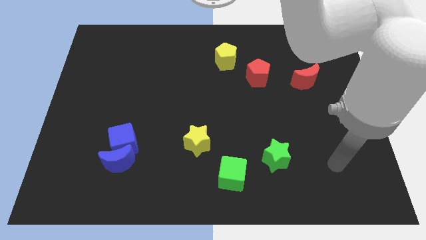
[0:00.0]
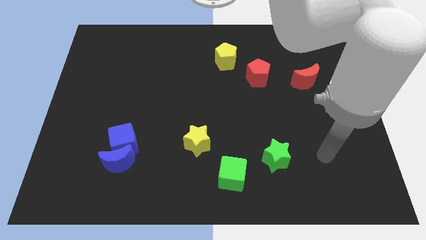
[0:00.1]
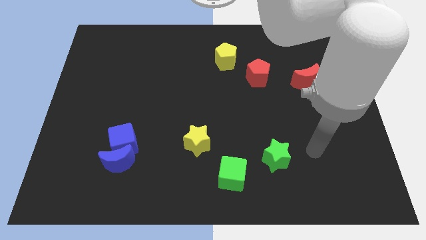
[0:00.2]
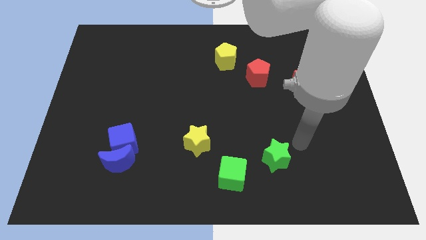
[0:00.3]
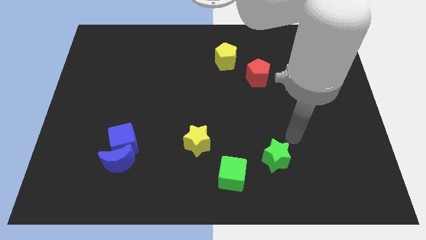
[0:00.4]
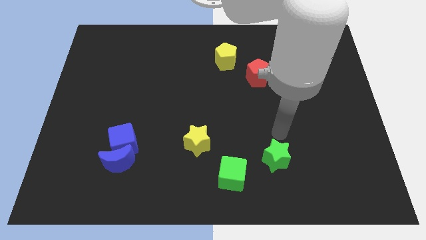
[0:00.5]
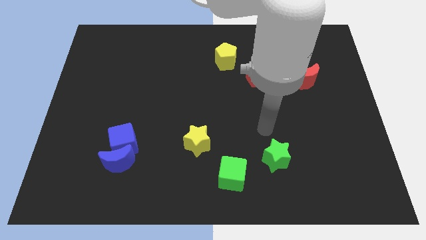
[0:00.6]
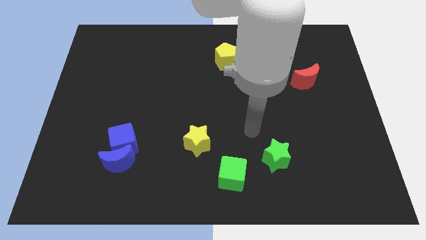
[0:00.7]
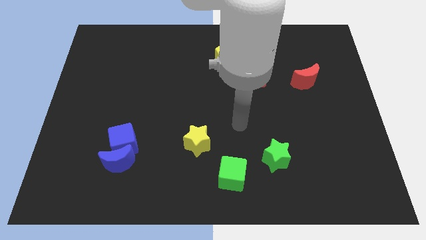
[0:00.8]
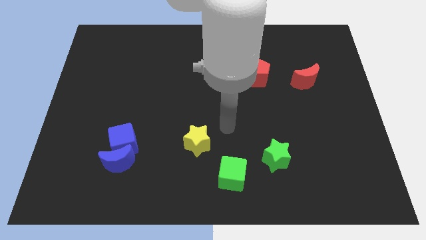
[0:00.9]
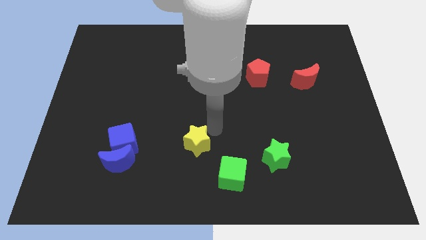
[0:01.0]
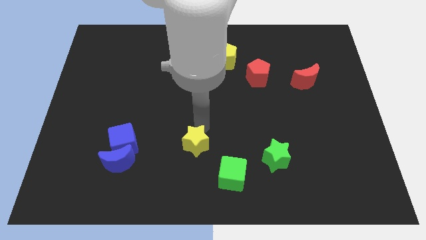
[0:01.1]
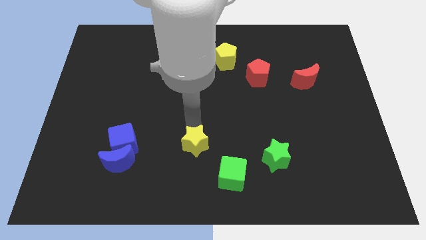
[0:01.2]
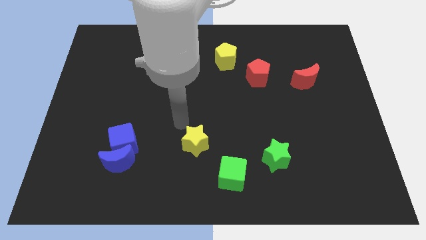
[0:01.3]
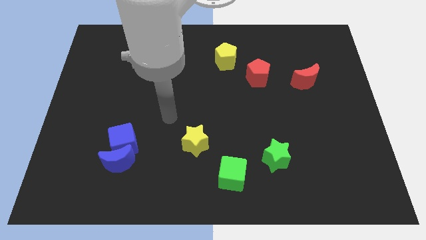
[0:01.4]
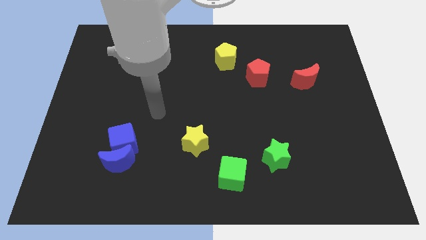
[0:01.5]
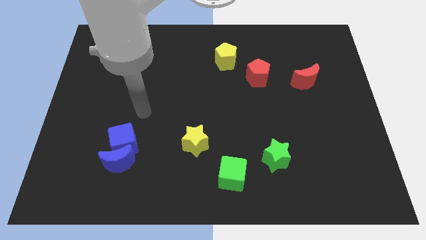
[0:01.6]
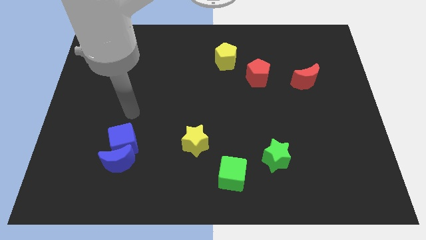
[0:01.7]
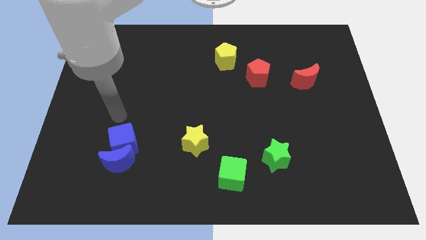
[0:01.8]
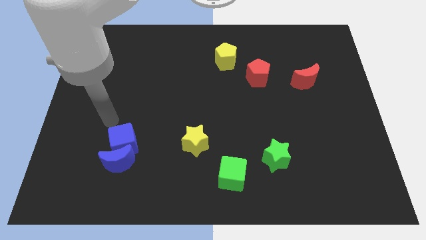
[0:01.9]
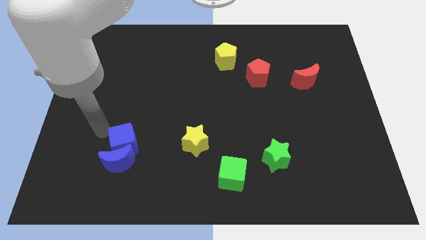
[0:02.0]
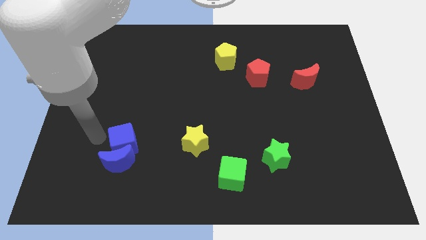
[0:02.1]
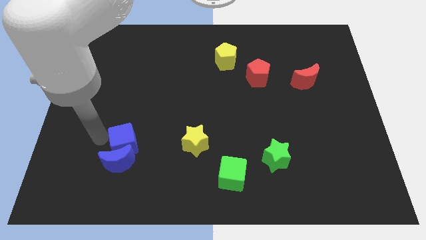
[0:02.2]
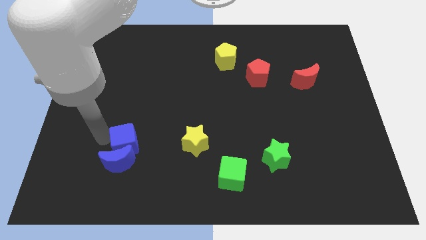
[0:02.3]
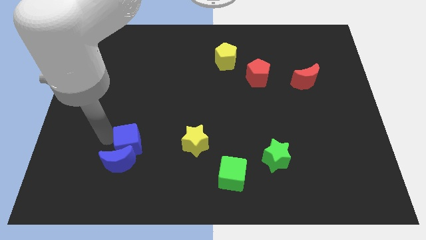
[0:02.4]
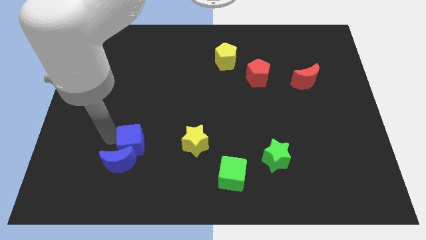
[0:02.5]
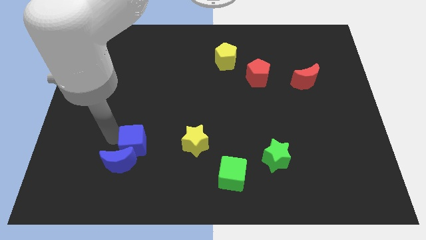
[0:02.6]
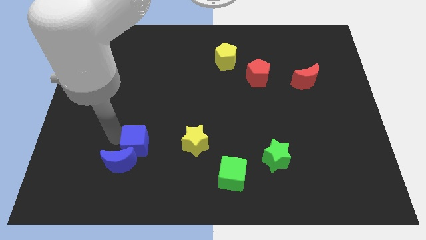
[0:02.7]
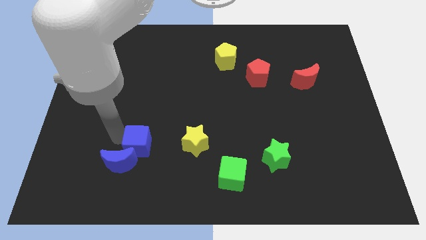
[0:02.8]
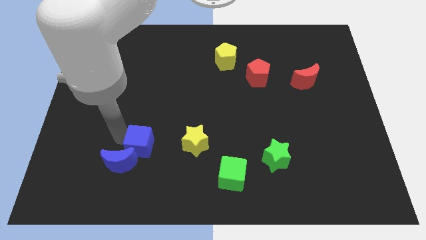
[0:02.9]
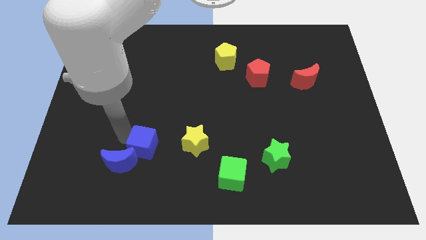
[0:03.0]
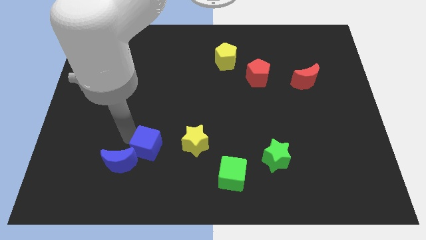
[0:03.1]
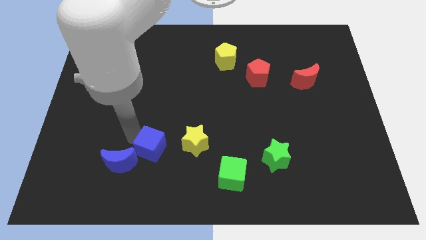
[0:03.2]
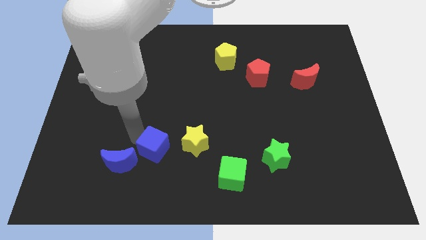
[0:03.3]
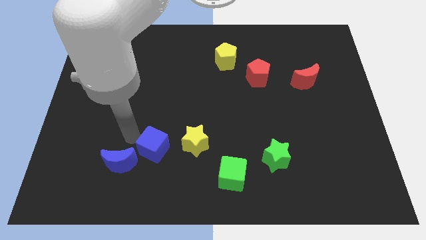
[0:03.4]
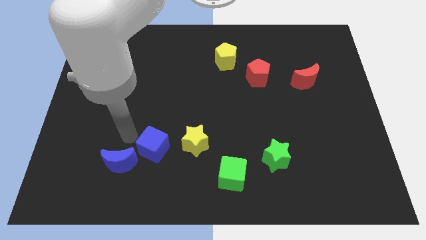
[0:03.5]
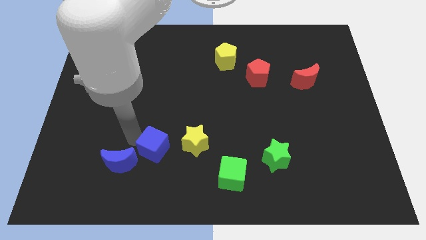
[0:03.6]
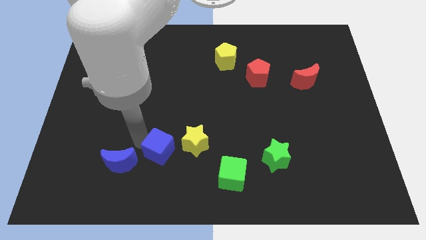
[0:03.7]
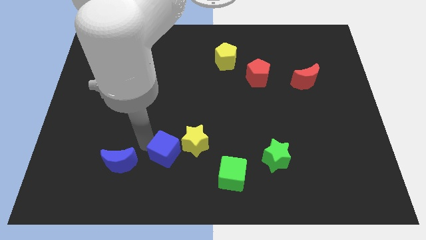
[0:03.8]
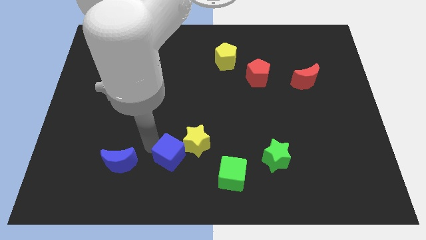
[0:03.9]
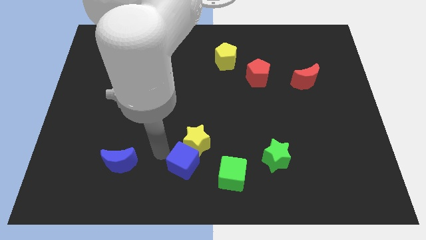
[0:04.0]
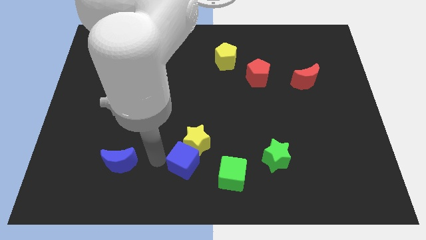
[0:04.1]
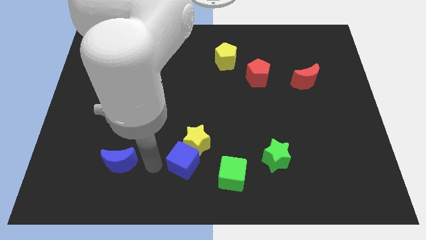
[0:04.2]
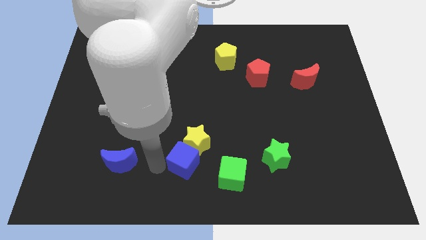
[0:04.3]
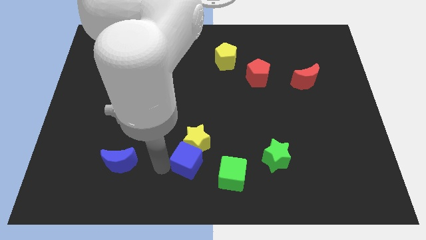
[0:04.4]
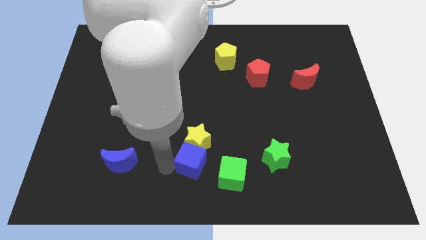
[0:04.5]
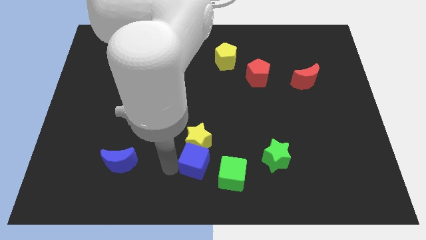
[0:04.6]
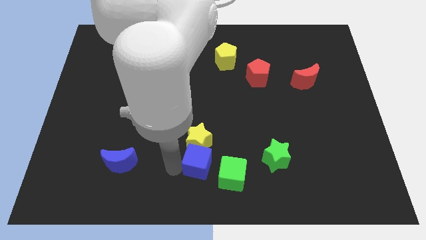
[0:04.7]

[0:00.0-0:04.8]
push the blue cube left of the green star

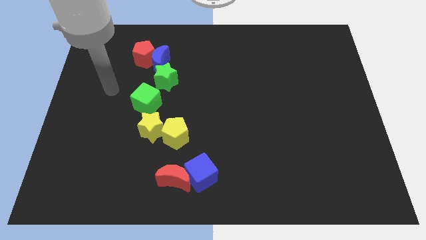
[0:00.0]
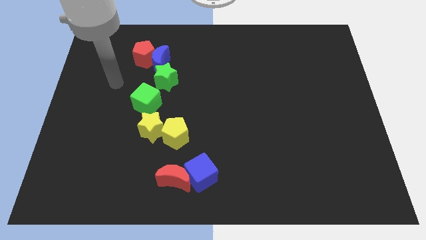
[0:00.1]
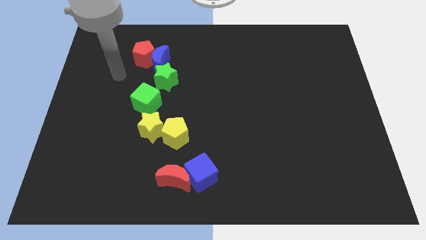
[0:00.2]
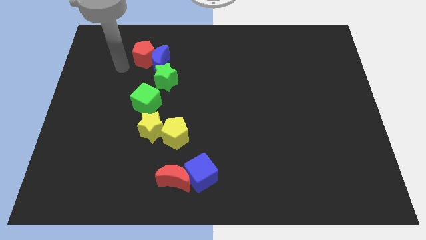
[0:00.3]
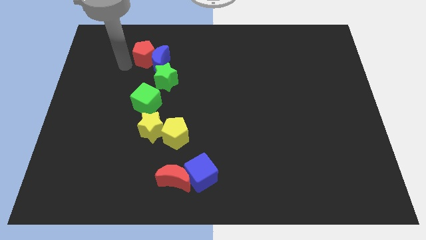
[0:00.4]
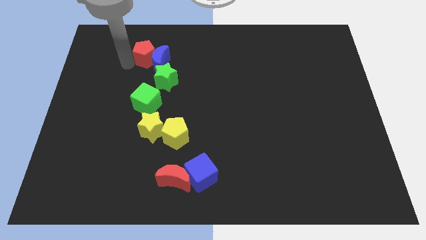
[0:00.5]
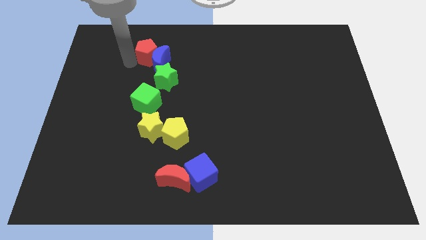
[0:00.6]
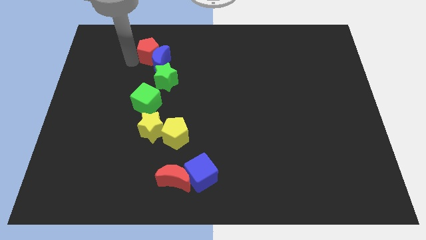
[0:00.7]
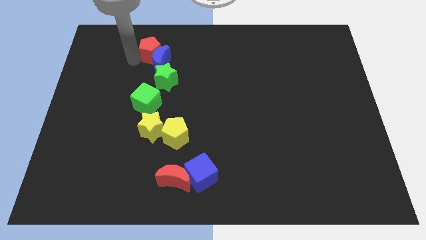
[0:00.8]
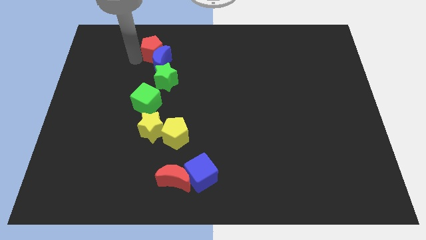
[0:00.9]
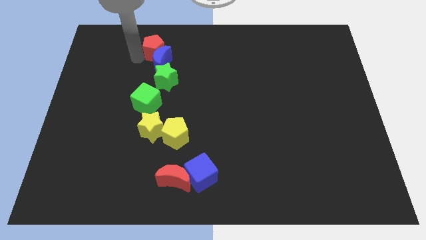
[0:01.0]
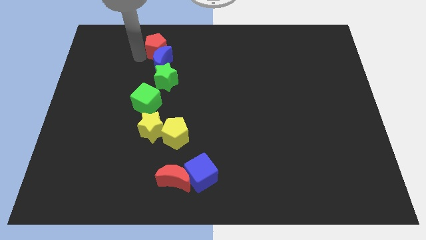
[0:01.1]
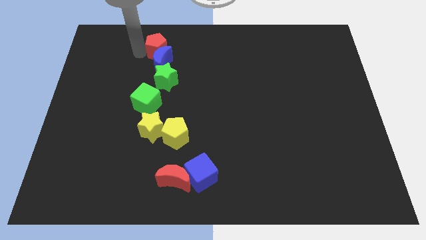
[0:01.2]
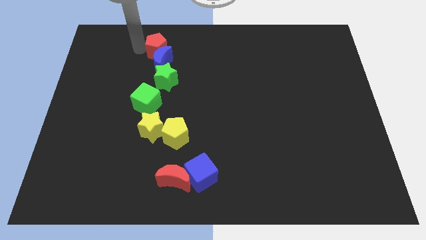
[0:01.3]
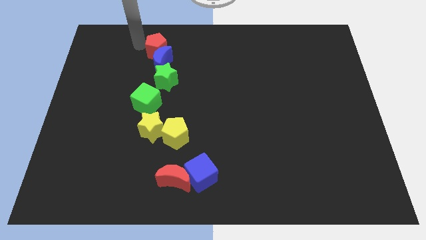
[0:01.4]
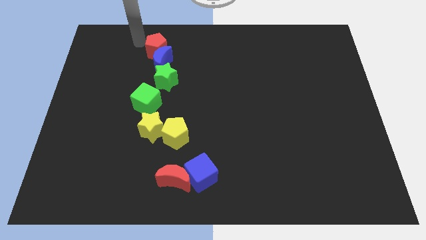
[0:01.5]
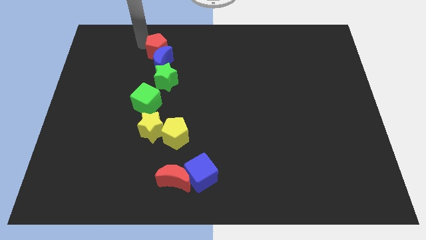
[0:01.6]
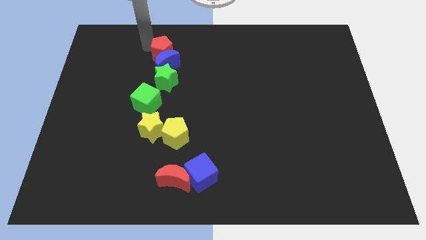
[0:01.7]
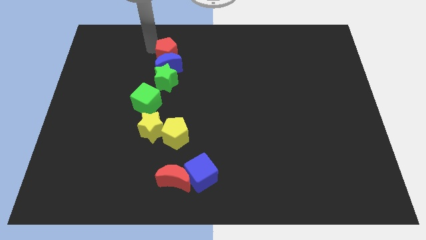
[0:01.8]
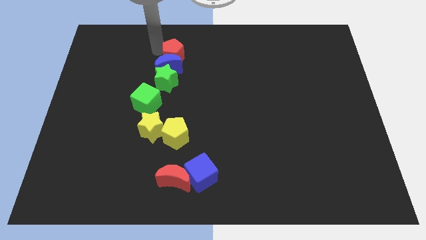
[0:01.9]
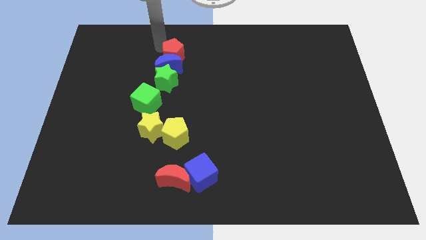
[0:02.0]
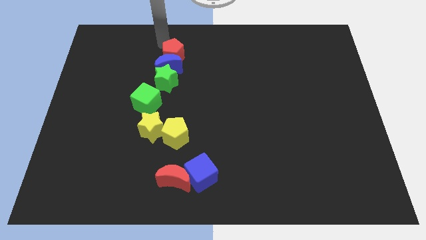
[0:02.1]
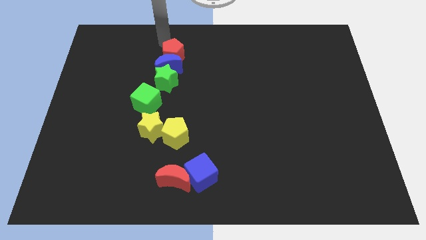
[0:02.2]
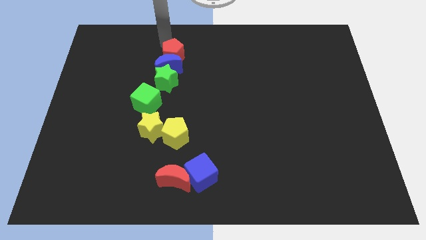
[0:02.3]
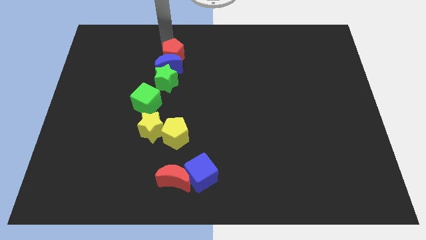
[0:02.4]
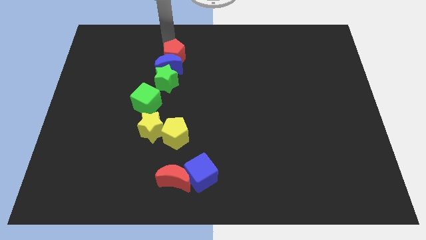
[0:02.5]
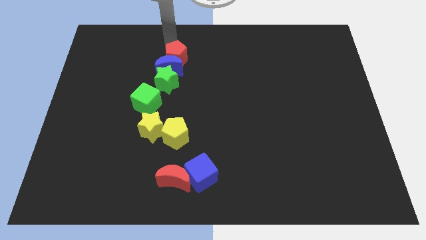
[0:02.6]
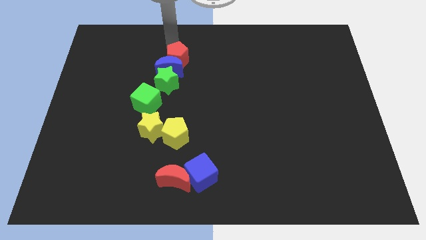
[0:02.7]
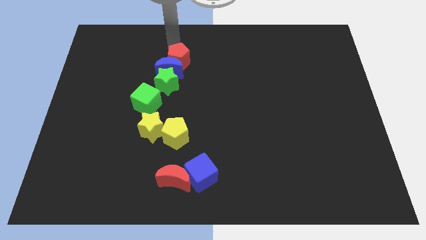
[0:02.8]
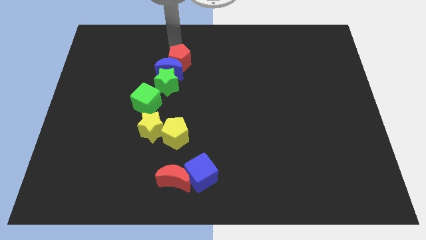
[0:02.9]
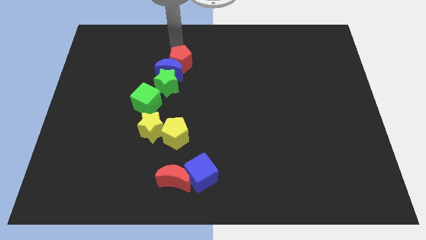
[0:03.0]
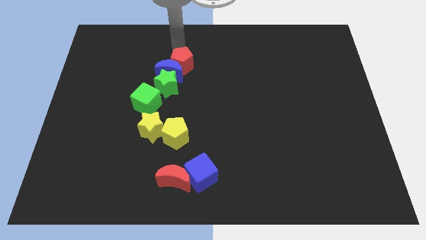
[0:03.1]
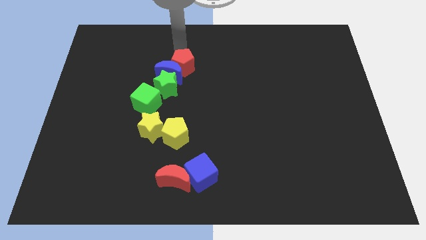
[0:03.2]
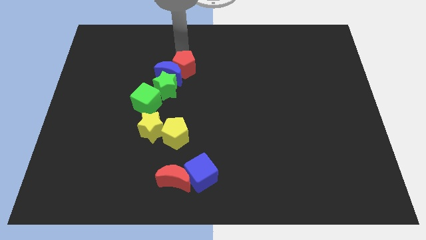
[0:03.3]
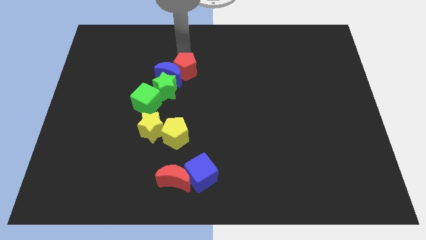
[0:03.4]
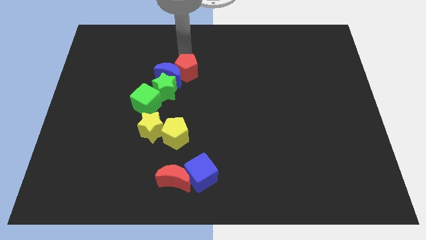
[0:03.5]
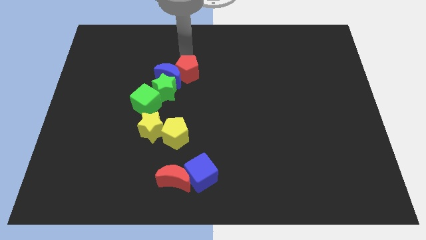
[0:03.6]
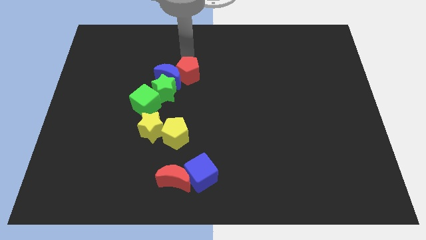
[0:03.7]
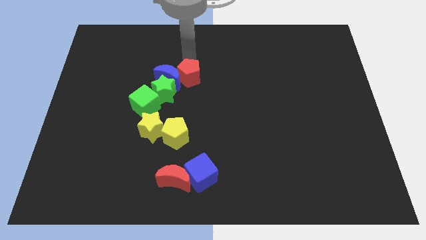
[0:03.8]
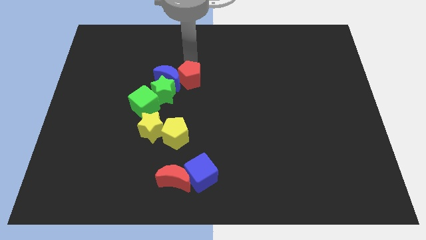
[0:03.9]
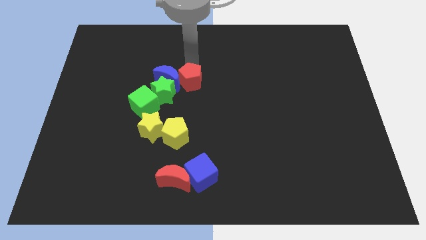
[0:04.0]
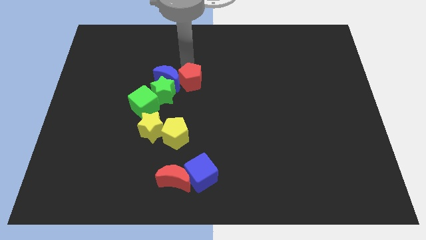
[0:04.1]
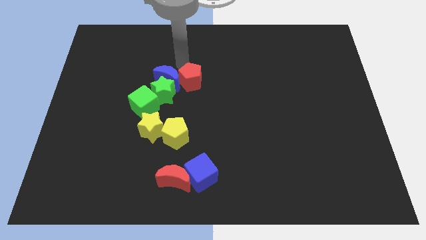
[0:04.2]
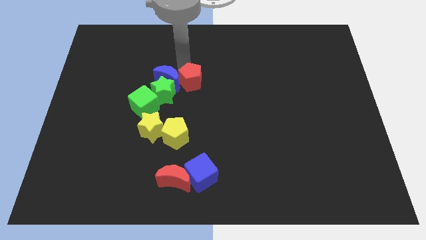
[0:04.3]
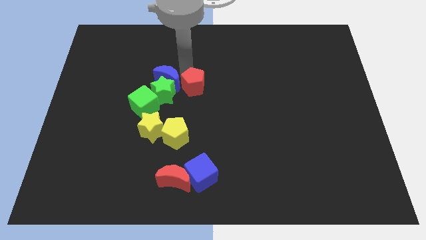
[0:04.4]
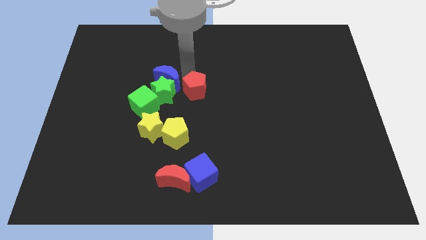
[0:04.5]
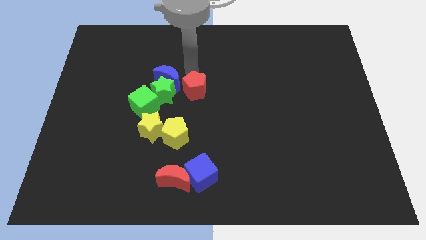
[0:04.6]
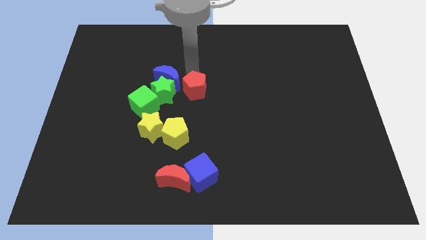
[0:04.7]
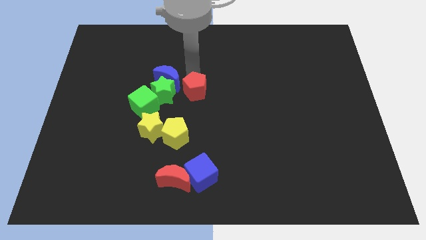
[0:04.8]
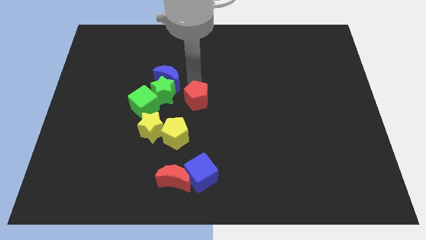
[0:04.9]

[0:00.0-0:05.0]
push the red pentagon to the top right side of the yellow pentagon
